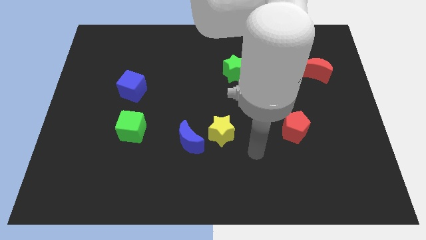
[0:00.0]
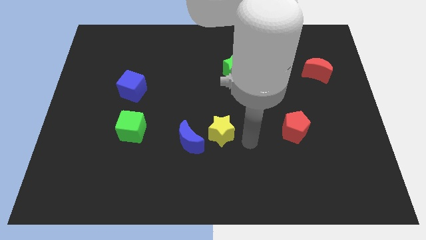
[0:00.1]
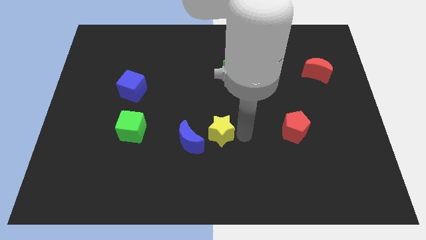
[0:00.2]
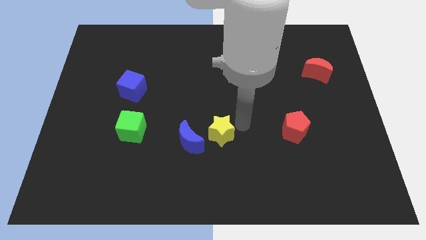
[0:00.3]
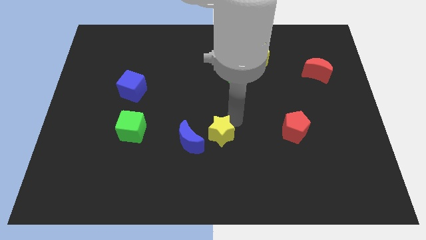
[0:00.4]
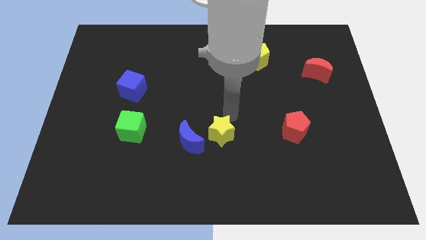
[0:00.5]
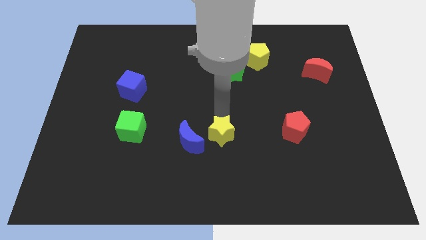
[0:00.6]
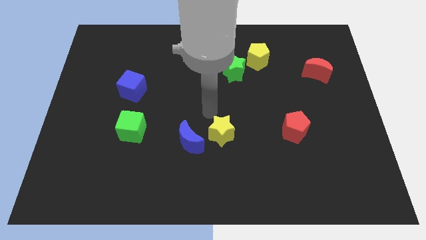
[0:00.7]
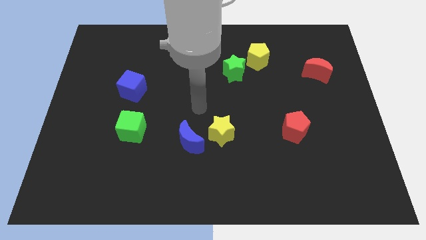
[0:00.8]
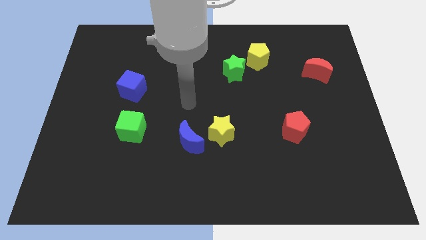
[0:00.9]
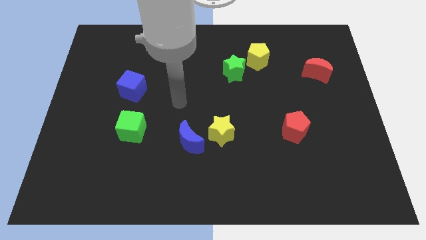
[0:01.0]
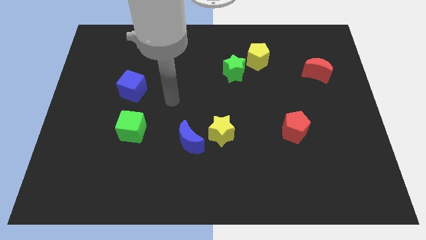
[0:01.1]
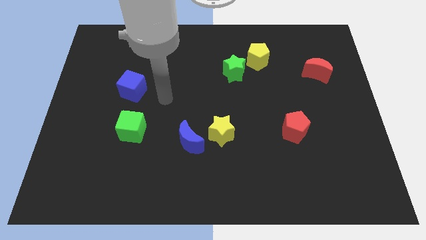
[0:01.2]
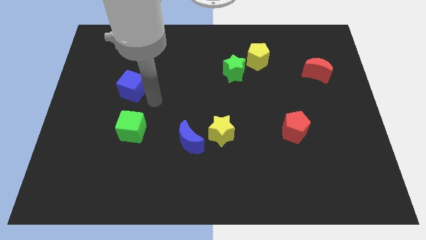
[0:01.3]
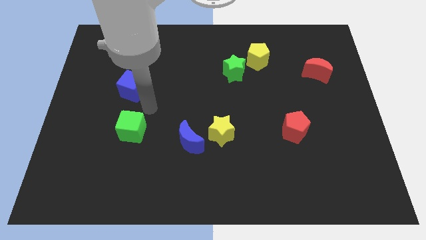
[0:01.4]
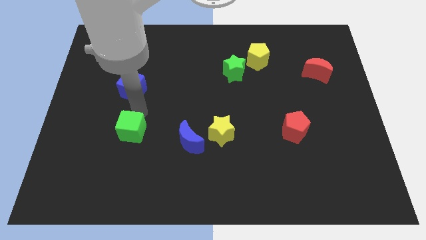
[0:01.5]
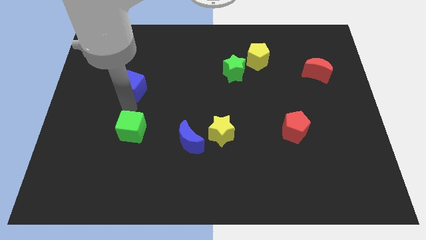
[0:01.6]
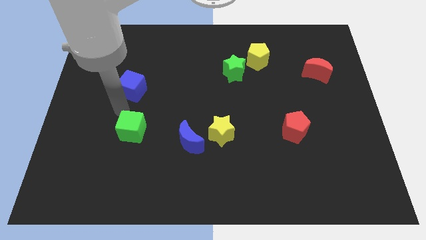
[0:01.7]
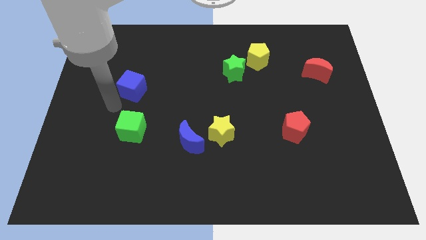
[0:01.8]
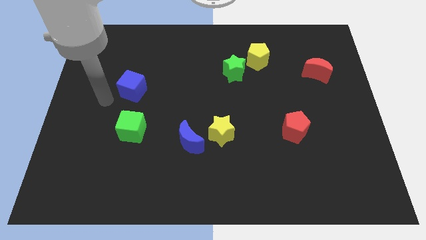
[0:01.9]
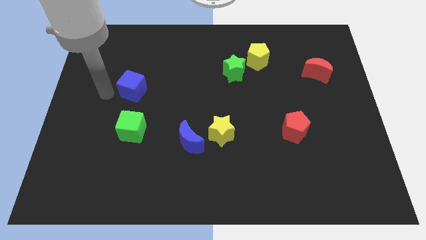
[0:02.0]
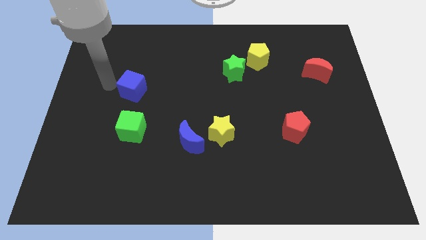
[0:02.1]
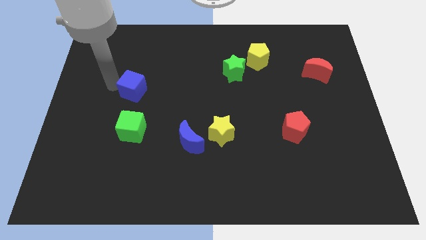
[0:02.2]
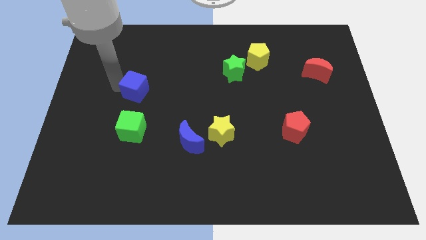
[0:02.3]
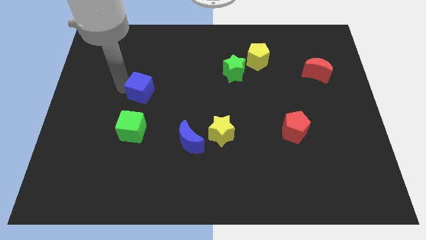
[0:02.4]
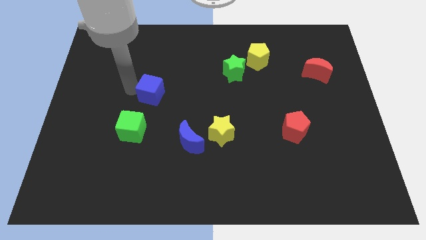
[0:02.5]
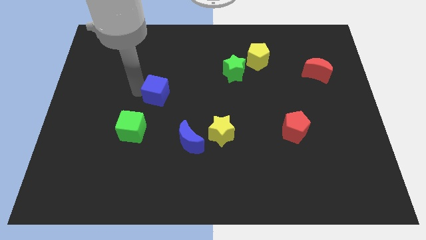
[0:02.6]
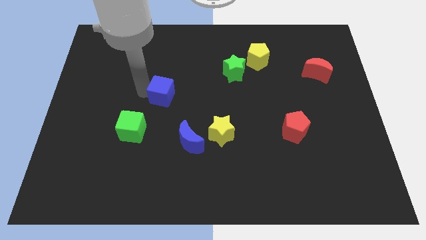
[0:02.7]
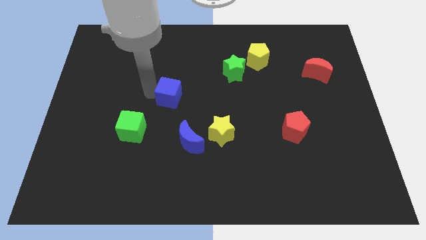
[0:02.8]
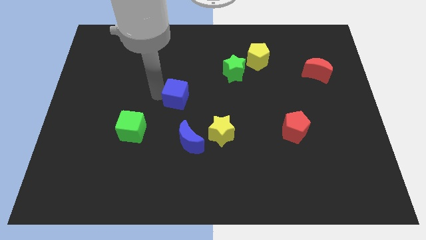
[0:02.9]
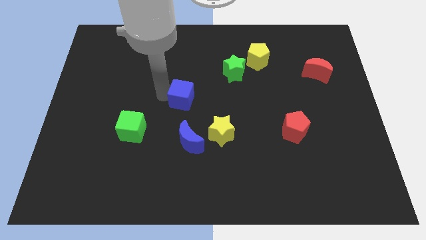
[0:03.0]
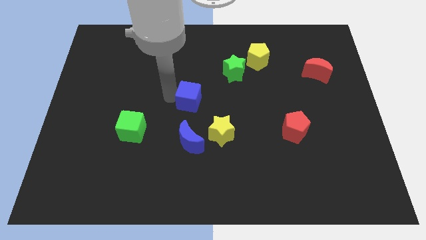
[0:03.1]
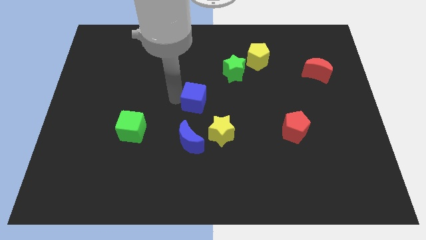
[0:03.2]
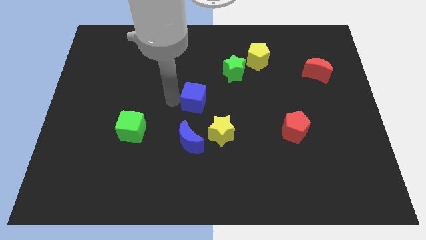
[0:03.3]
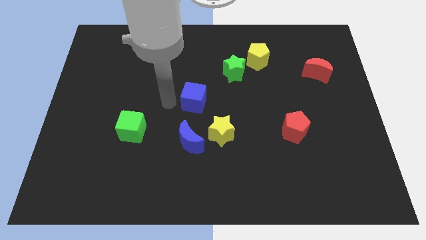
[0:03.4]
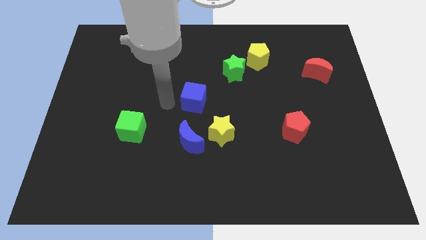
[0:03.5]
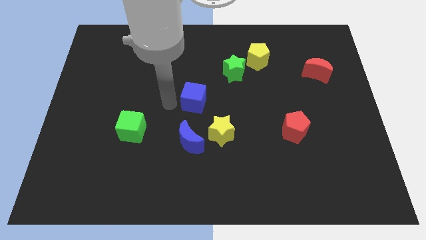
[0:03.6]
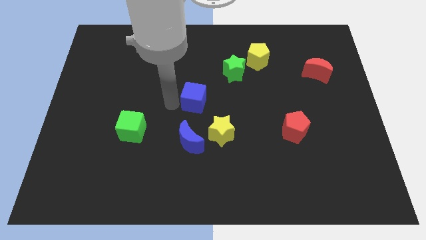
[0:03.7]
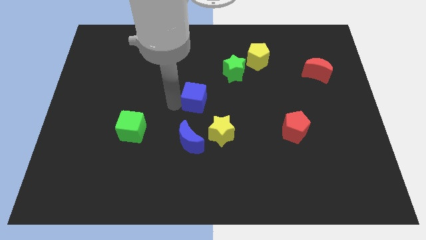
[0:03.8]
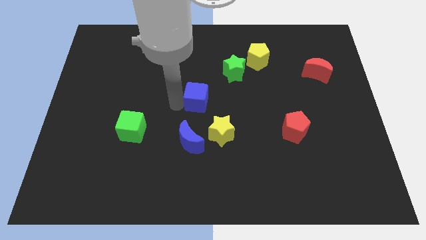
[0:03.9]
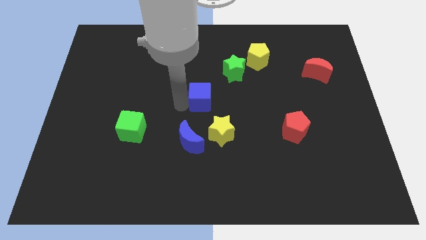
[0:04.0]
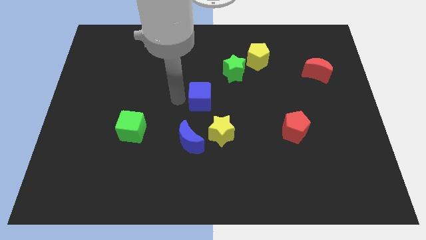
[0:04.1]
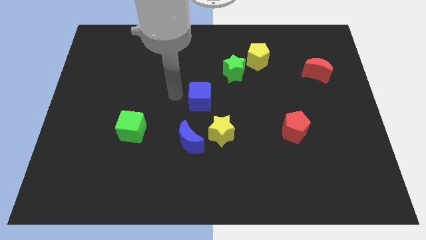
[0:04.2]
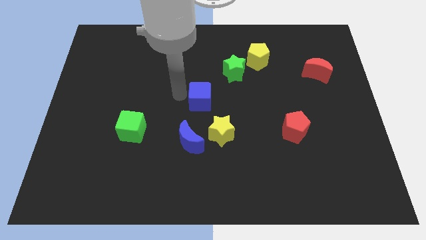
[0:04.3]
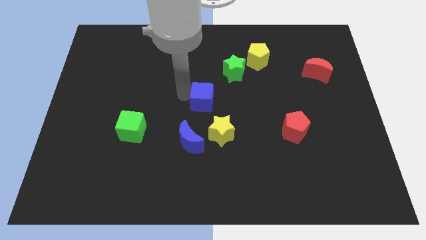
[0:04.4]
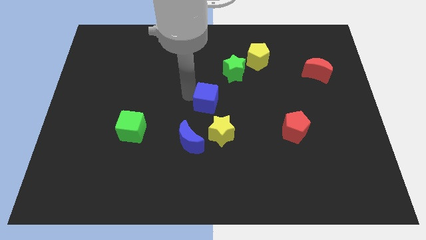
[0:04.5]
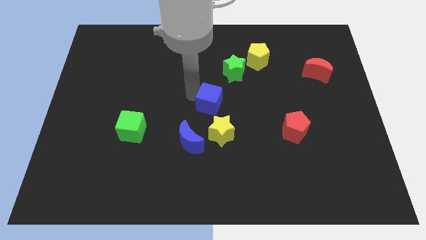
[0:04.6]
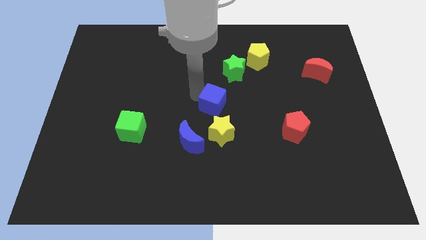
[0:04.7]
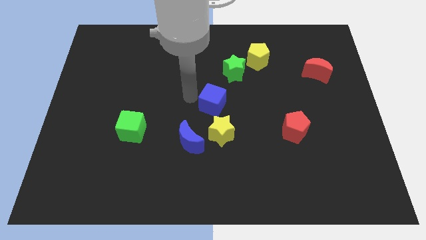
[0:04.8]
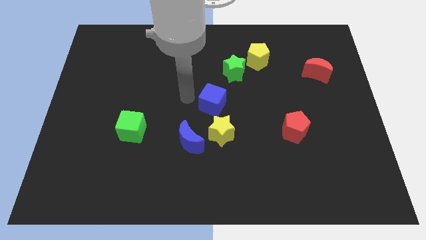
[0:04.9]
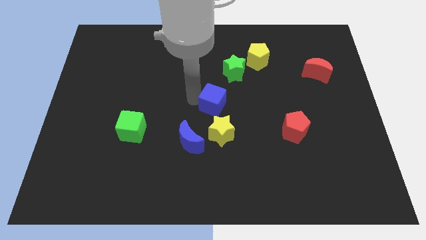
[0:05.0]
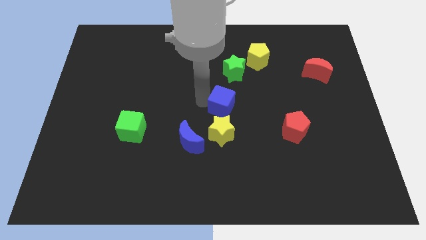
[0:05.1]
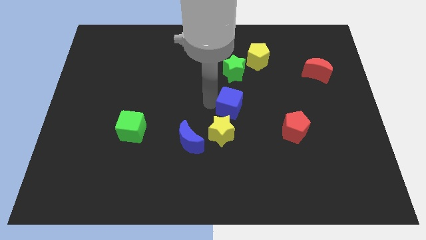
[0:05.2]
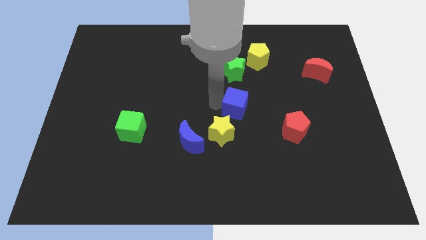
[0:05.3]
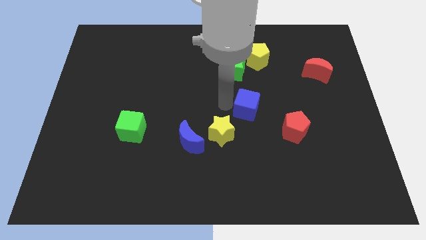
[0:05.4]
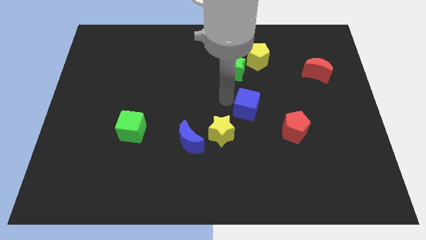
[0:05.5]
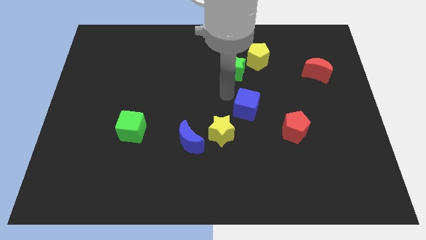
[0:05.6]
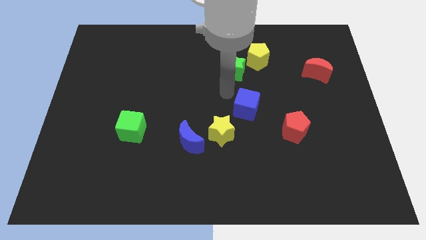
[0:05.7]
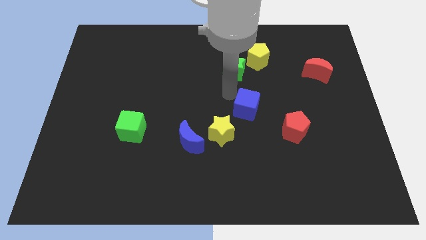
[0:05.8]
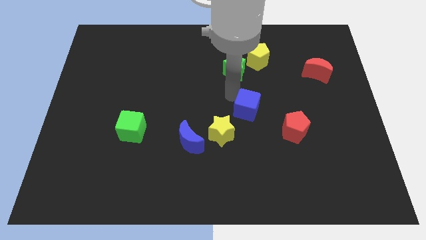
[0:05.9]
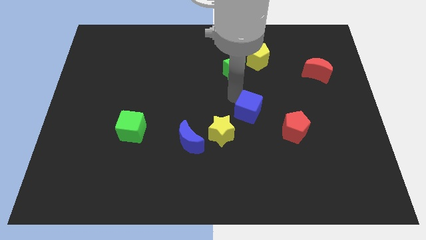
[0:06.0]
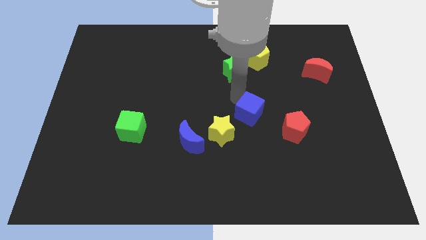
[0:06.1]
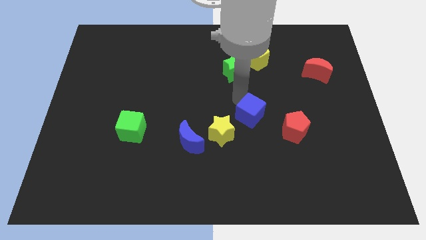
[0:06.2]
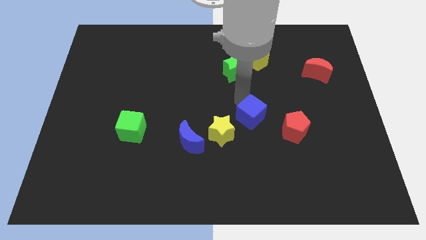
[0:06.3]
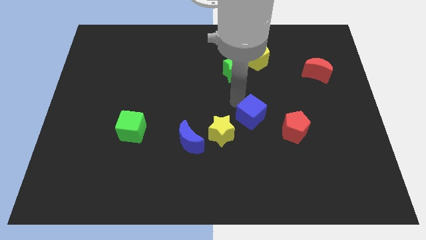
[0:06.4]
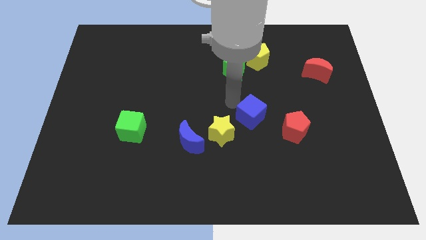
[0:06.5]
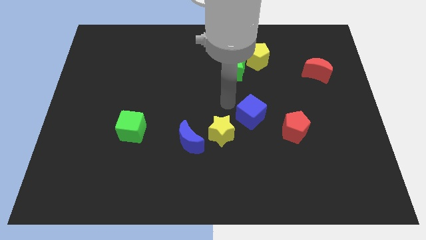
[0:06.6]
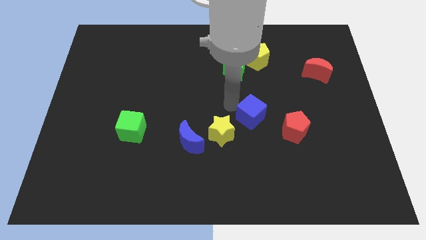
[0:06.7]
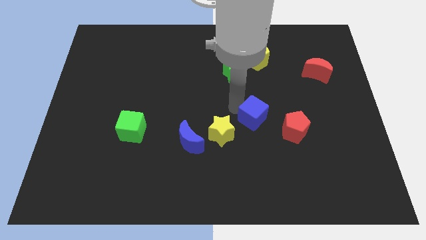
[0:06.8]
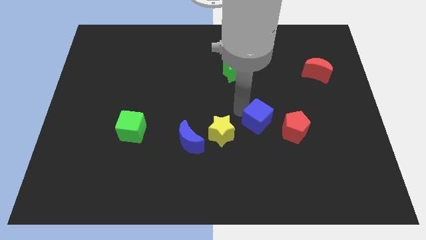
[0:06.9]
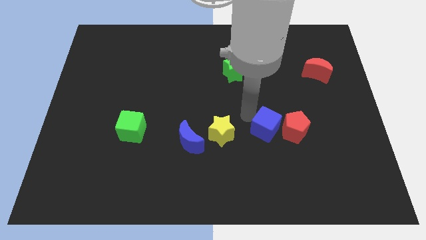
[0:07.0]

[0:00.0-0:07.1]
put the blue cube close to the red pentagon

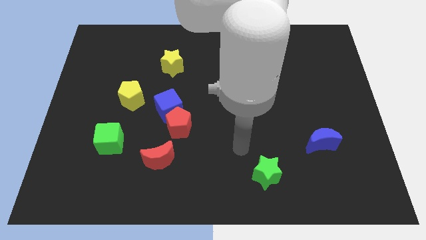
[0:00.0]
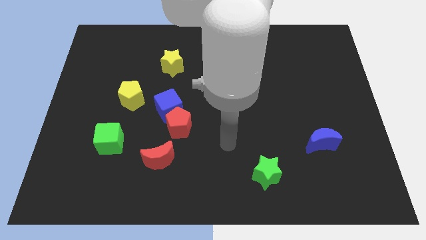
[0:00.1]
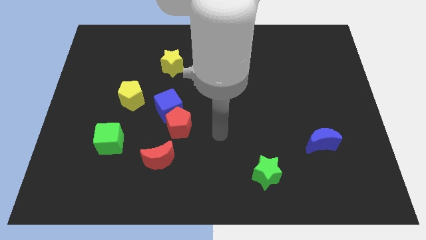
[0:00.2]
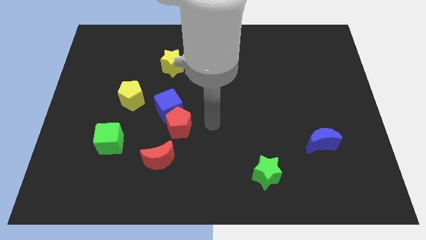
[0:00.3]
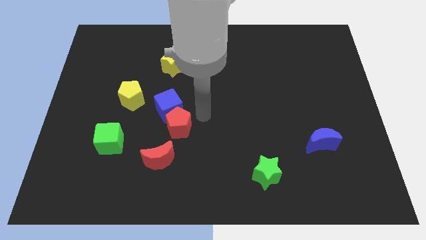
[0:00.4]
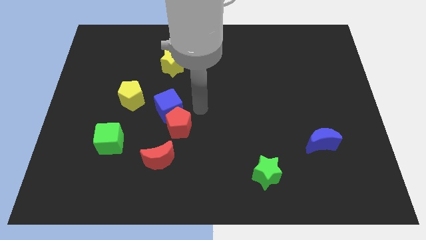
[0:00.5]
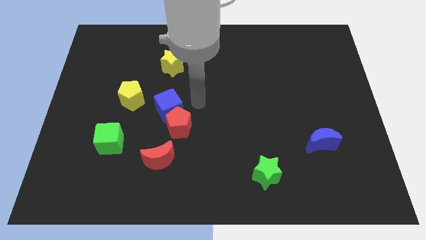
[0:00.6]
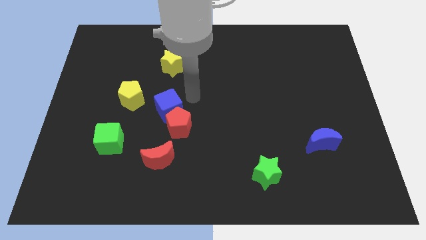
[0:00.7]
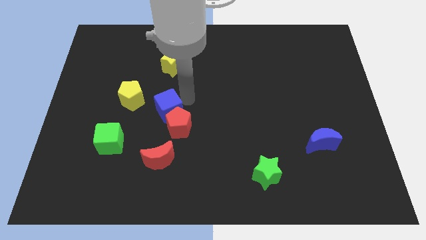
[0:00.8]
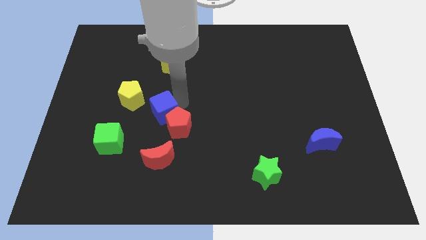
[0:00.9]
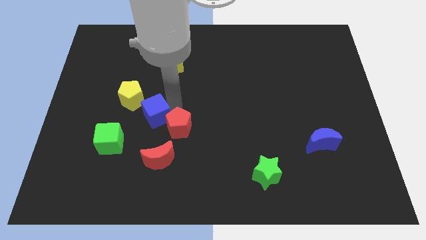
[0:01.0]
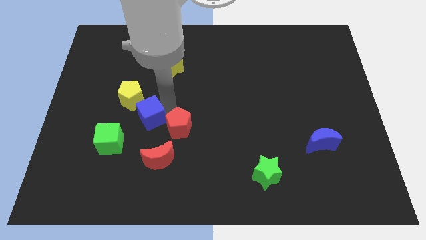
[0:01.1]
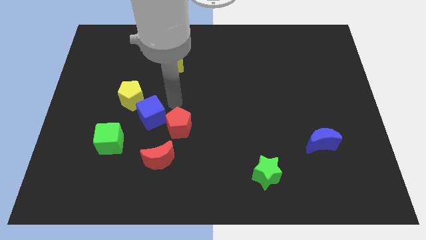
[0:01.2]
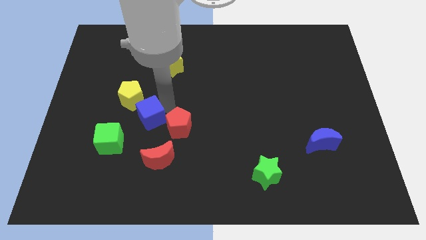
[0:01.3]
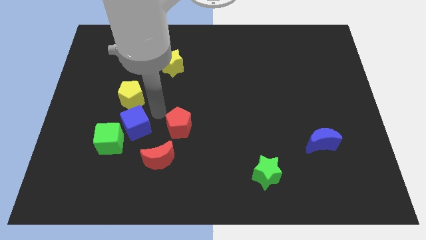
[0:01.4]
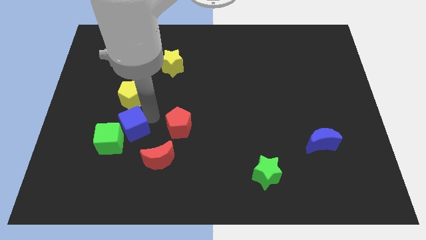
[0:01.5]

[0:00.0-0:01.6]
move the blue cube close to the green cube
